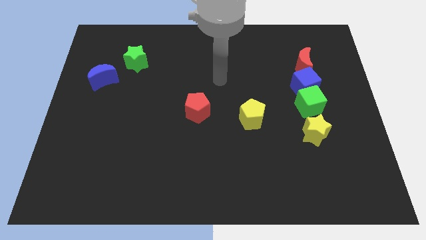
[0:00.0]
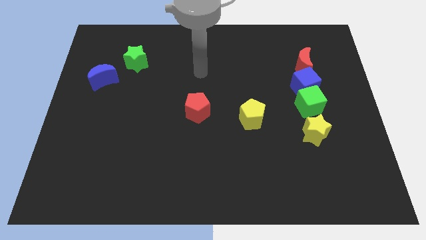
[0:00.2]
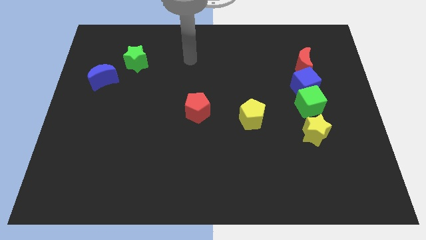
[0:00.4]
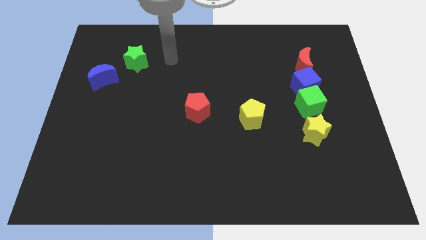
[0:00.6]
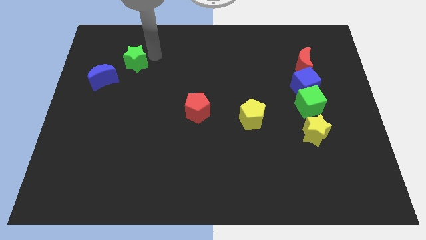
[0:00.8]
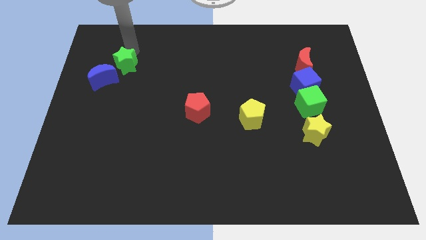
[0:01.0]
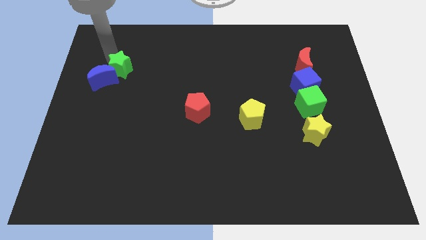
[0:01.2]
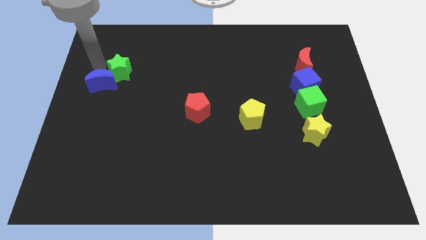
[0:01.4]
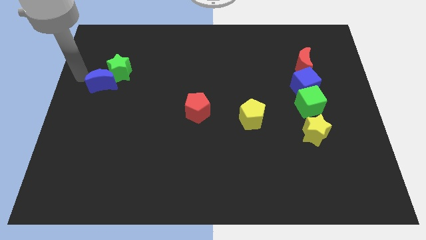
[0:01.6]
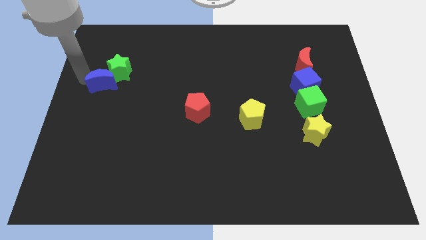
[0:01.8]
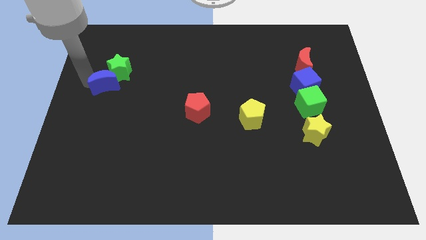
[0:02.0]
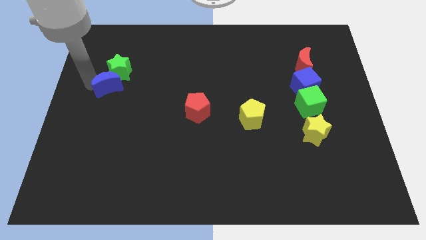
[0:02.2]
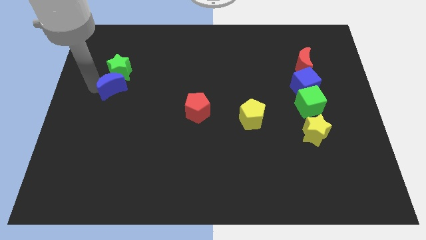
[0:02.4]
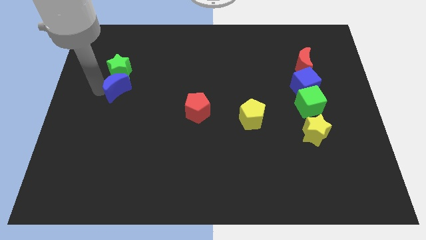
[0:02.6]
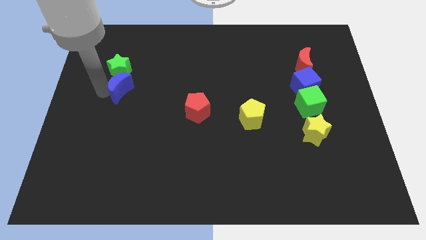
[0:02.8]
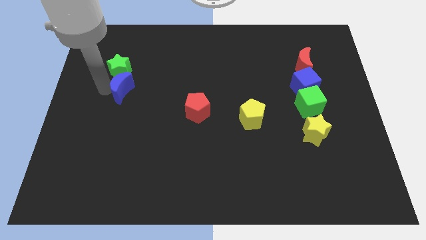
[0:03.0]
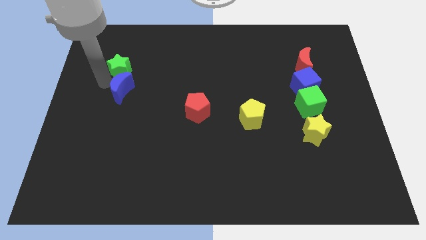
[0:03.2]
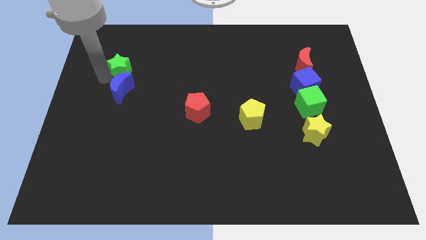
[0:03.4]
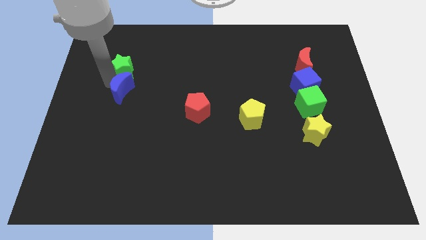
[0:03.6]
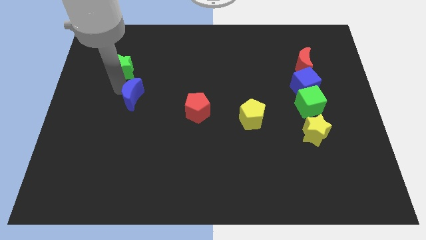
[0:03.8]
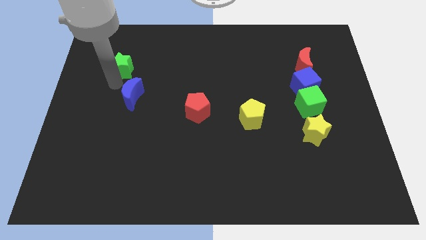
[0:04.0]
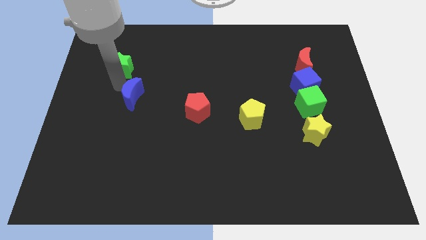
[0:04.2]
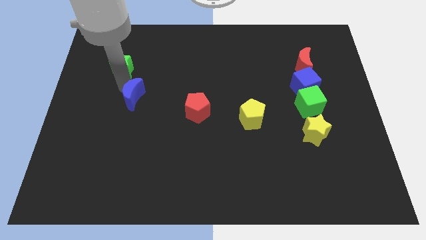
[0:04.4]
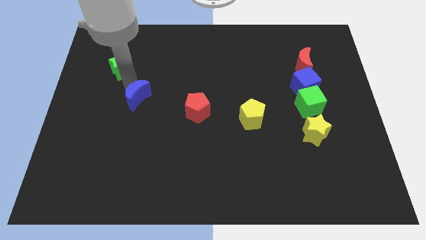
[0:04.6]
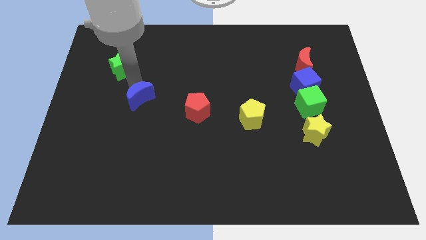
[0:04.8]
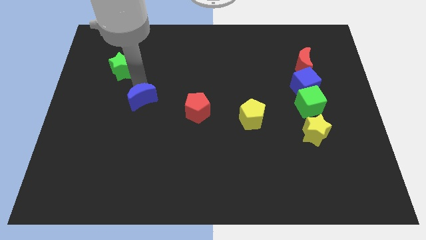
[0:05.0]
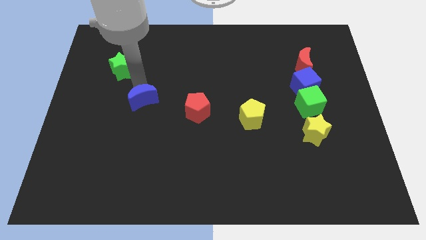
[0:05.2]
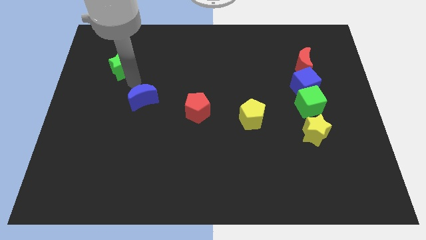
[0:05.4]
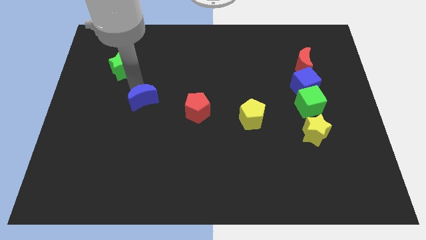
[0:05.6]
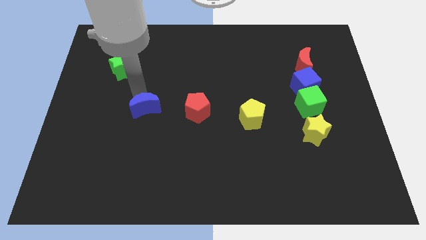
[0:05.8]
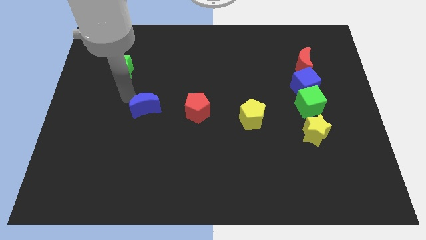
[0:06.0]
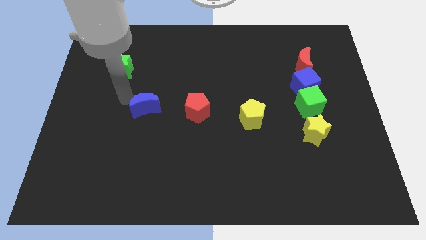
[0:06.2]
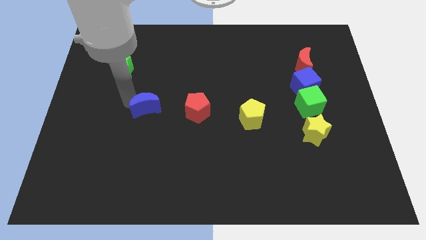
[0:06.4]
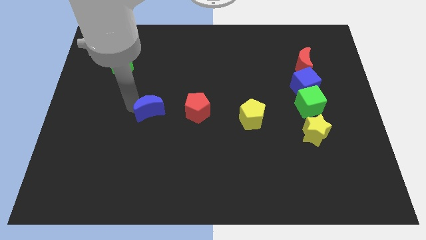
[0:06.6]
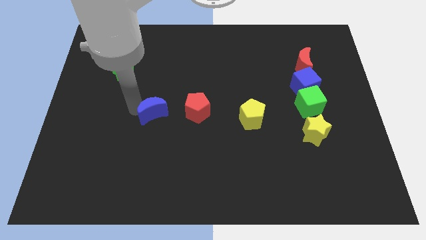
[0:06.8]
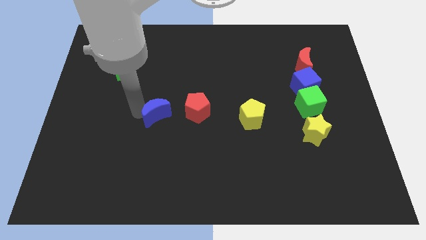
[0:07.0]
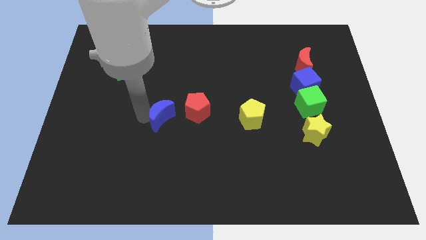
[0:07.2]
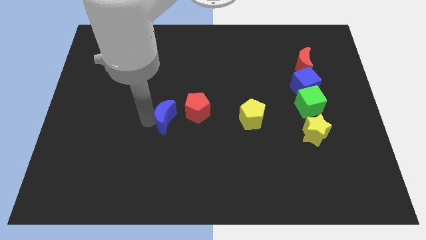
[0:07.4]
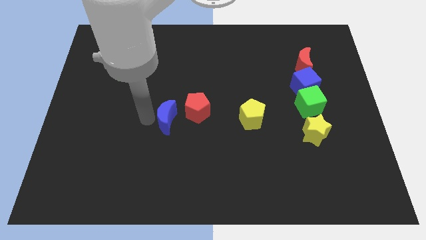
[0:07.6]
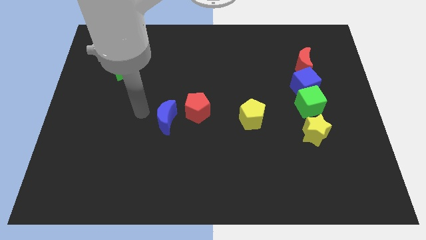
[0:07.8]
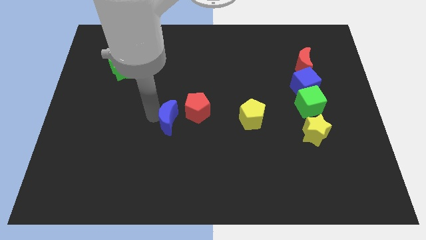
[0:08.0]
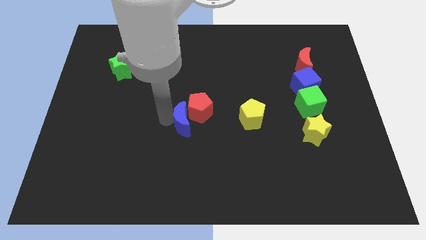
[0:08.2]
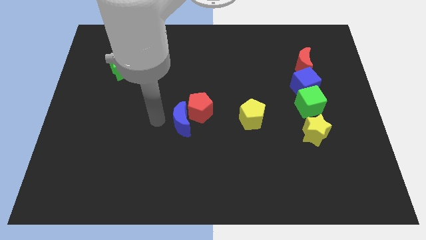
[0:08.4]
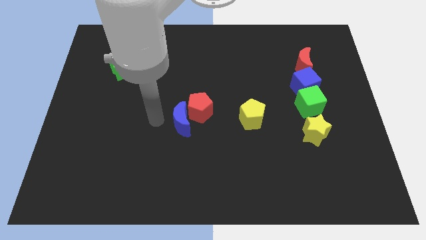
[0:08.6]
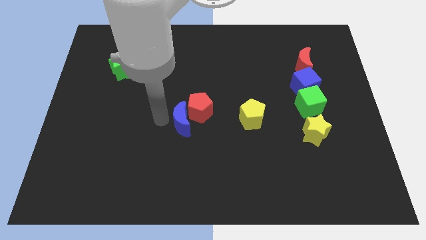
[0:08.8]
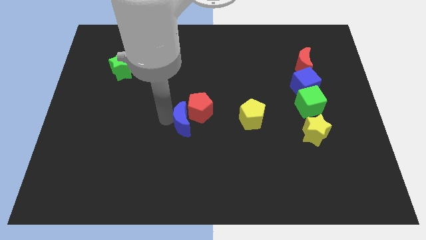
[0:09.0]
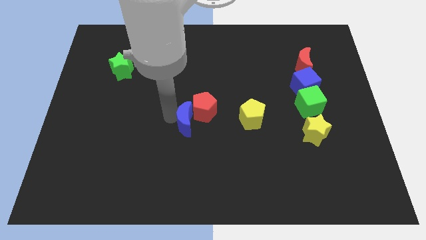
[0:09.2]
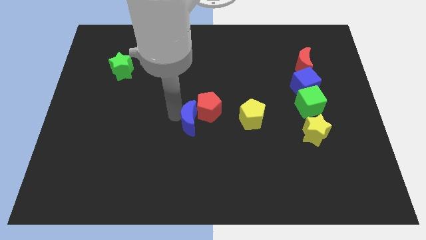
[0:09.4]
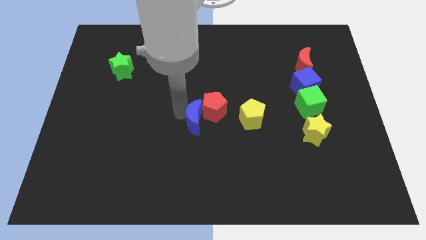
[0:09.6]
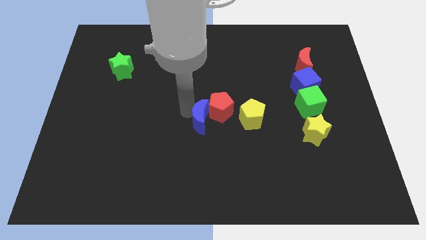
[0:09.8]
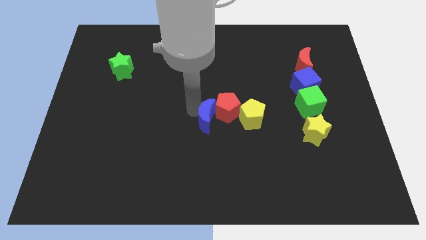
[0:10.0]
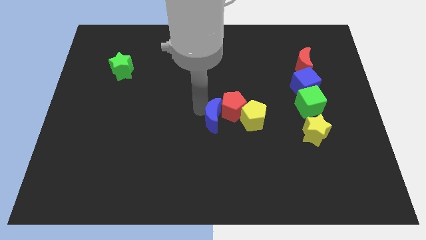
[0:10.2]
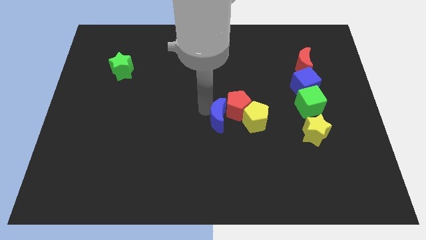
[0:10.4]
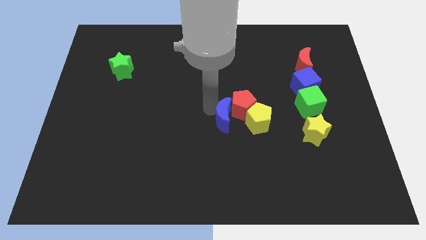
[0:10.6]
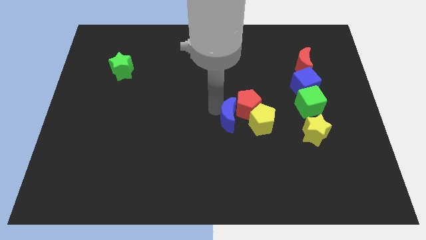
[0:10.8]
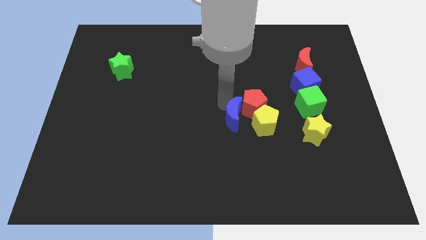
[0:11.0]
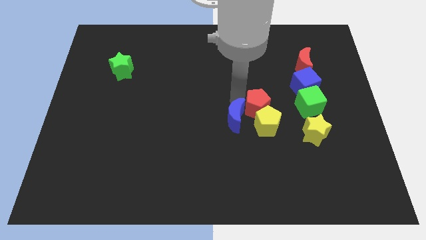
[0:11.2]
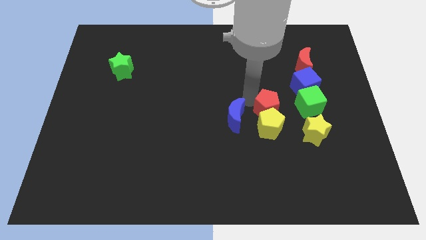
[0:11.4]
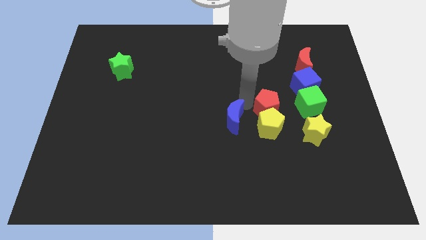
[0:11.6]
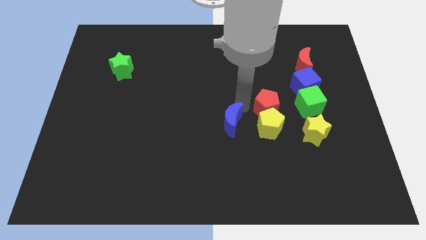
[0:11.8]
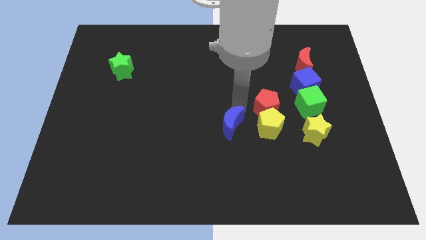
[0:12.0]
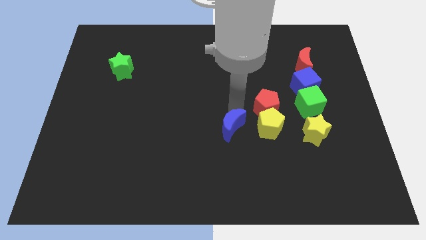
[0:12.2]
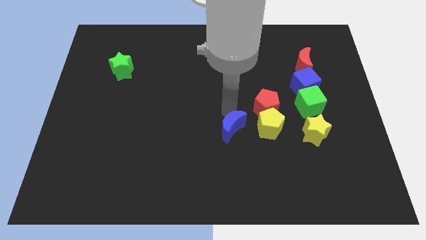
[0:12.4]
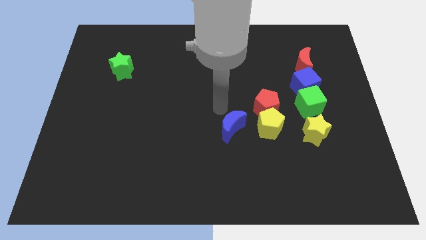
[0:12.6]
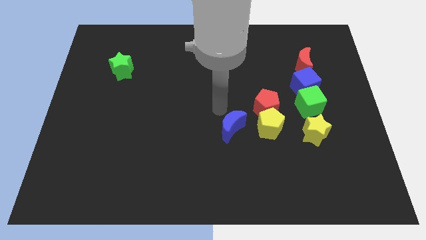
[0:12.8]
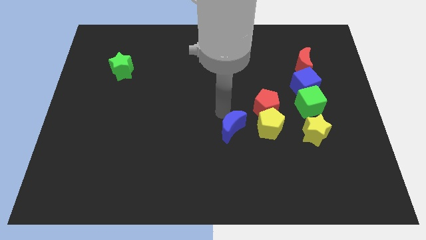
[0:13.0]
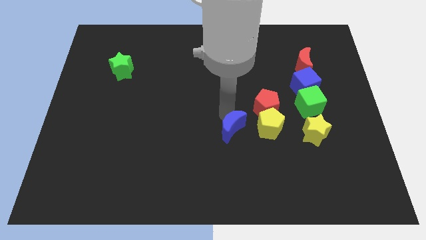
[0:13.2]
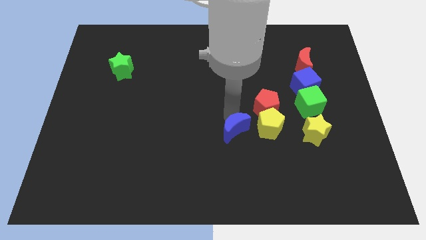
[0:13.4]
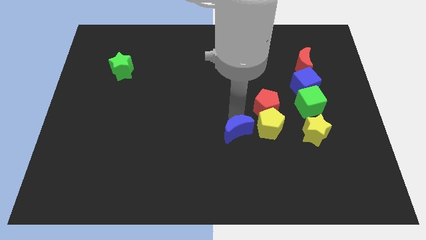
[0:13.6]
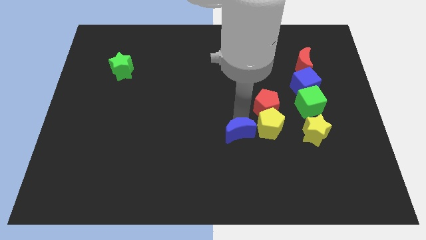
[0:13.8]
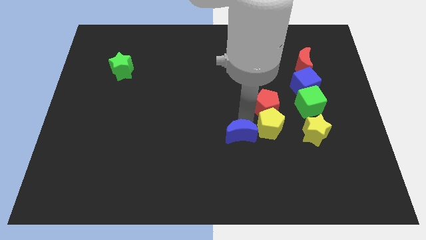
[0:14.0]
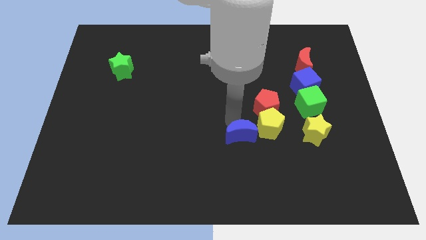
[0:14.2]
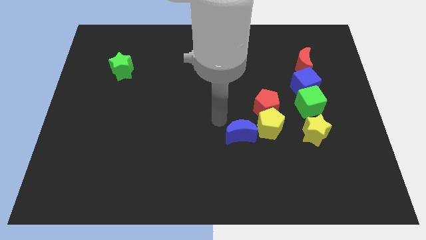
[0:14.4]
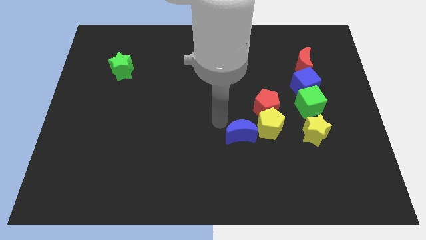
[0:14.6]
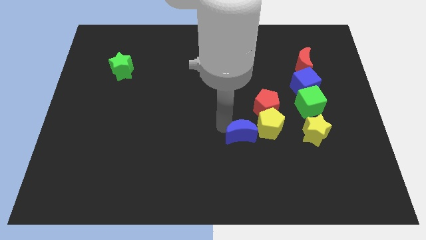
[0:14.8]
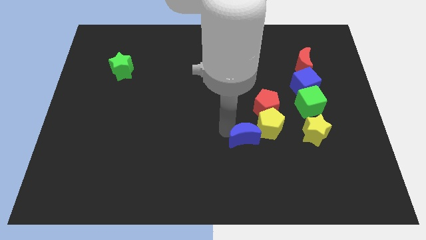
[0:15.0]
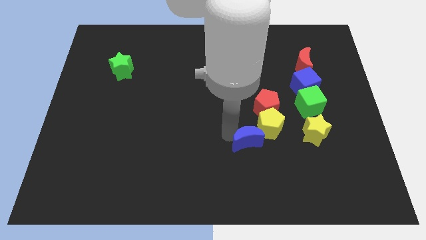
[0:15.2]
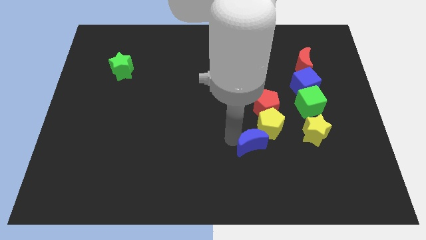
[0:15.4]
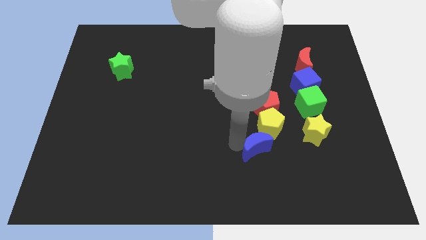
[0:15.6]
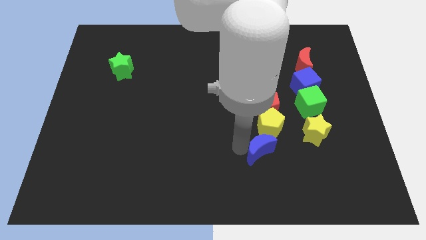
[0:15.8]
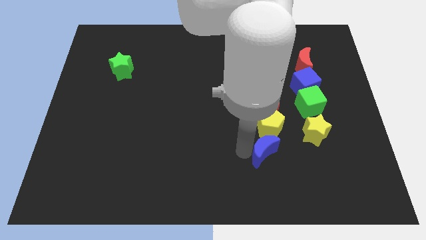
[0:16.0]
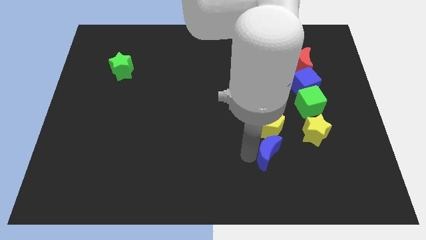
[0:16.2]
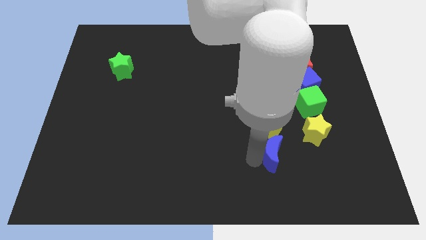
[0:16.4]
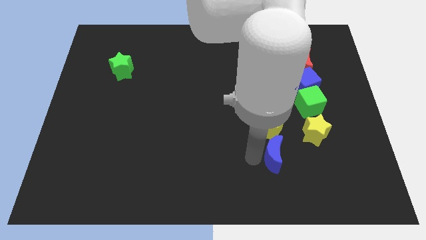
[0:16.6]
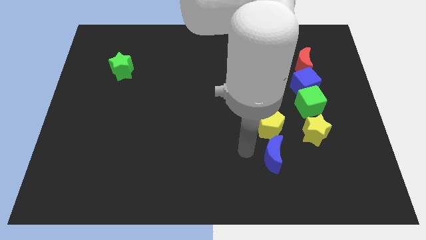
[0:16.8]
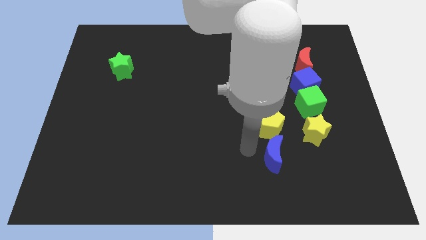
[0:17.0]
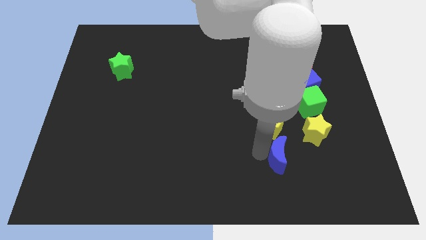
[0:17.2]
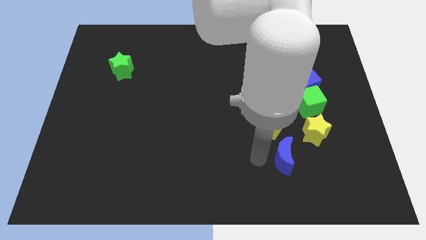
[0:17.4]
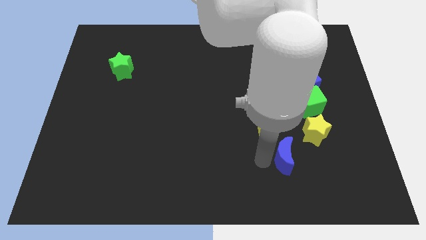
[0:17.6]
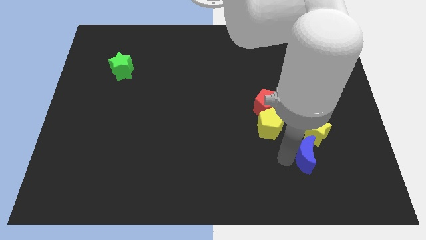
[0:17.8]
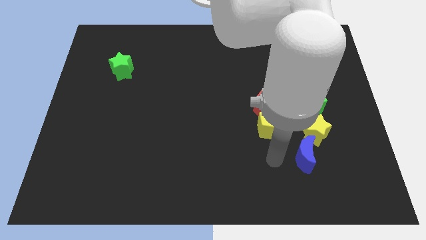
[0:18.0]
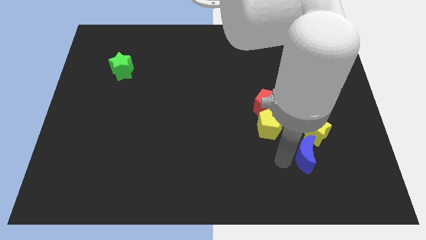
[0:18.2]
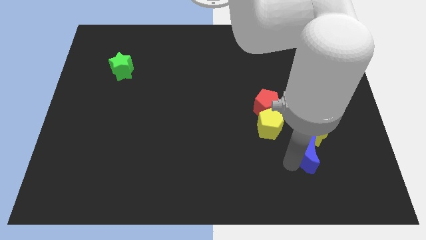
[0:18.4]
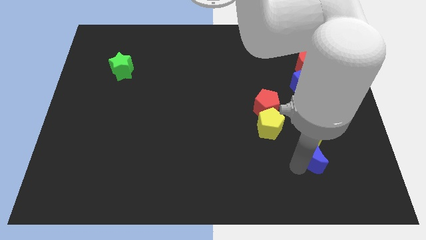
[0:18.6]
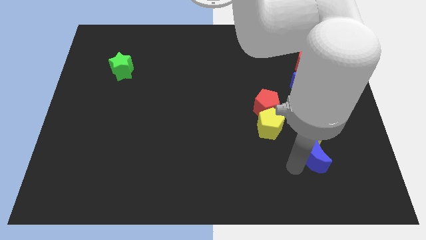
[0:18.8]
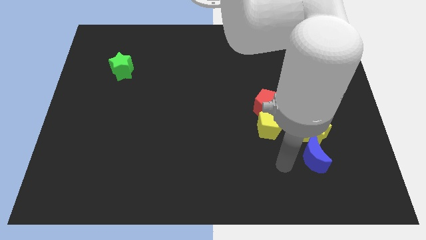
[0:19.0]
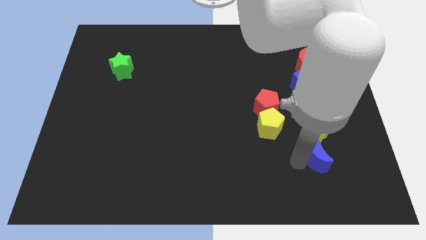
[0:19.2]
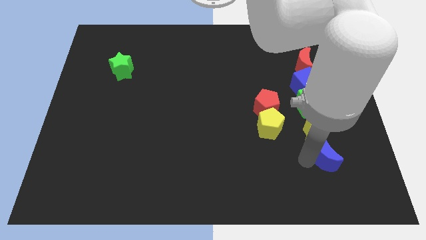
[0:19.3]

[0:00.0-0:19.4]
slide the blue moon to the bottom right of the yellow star
